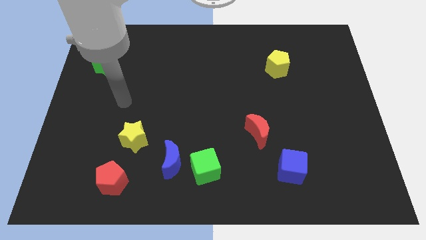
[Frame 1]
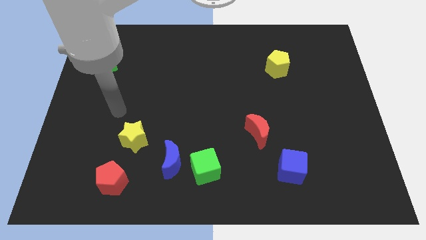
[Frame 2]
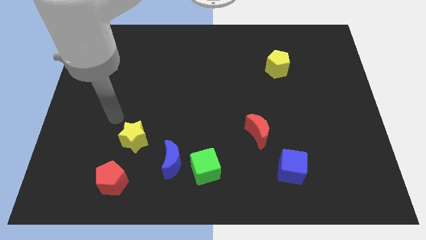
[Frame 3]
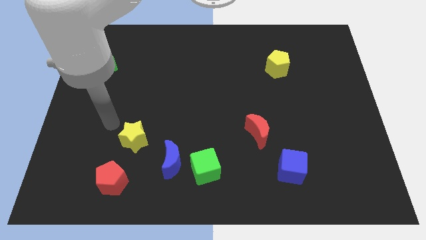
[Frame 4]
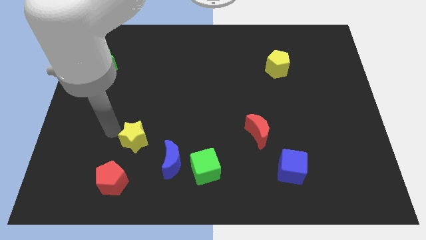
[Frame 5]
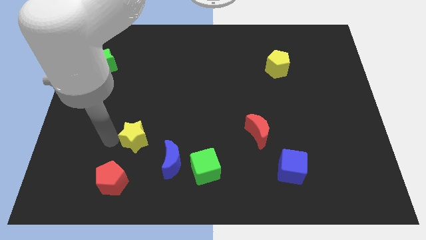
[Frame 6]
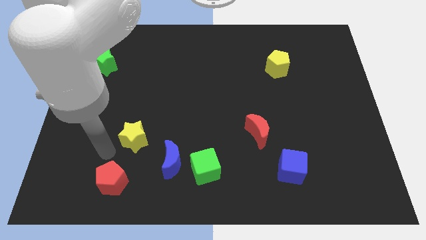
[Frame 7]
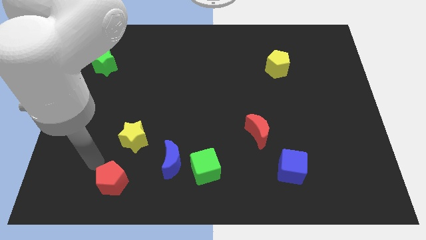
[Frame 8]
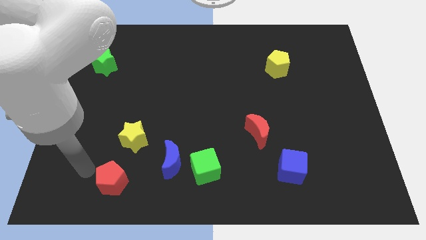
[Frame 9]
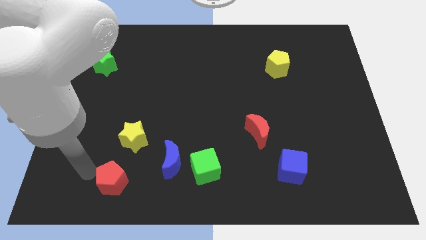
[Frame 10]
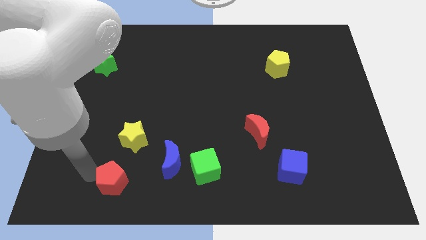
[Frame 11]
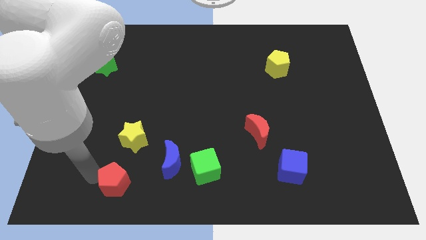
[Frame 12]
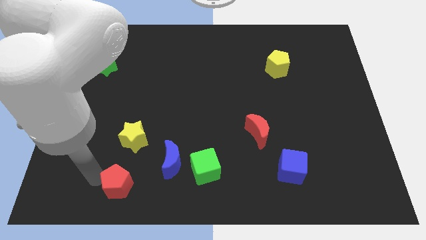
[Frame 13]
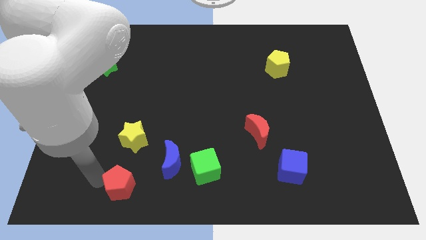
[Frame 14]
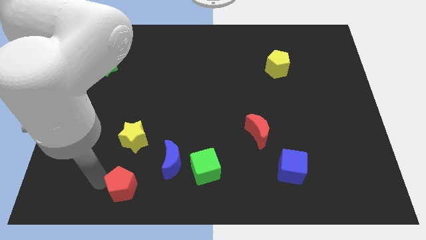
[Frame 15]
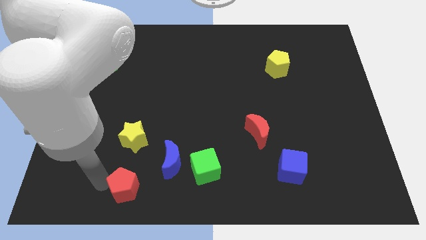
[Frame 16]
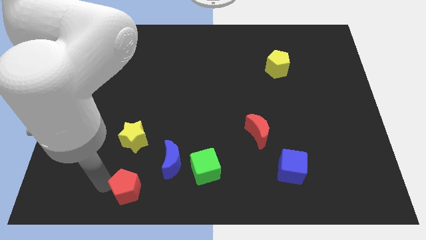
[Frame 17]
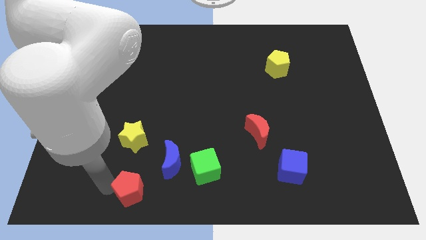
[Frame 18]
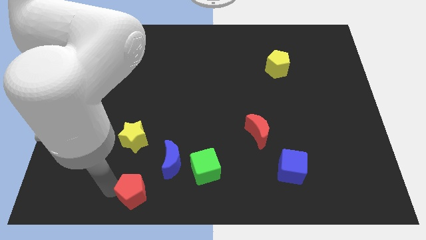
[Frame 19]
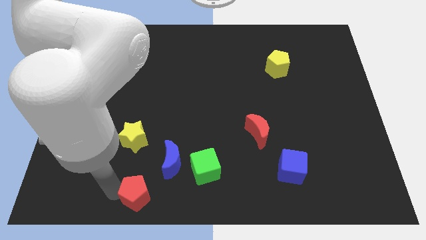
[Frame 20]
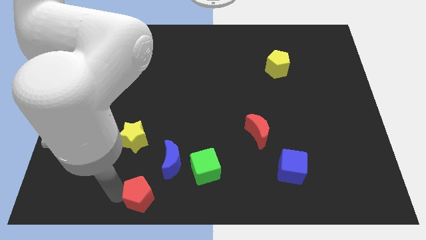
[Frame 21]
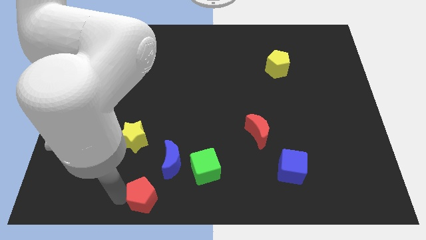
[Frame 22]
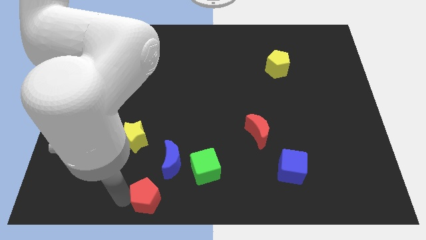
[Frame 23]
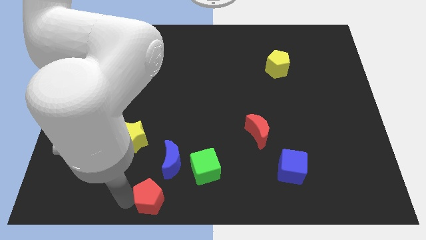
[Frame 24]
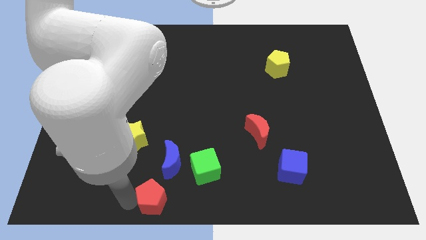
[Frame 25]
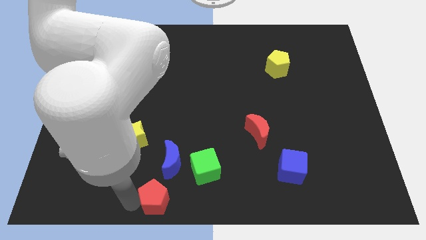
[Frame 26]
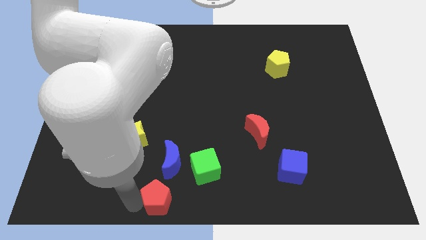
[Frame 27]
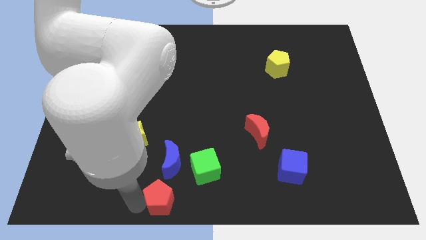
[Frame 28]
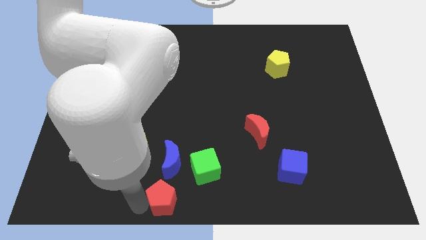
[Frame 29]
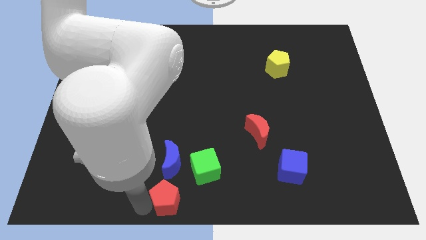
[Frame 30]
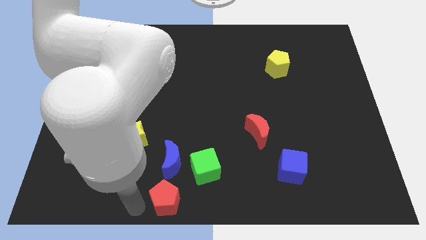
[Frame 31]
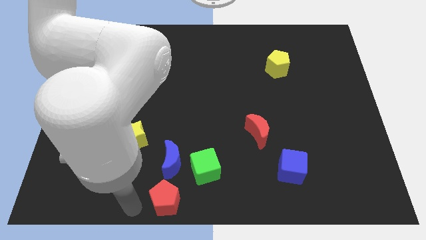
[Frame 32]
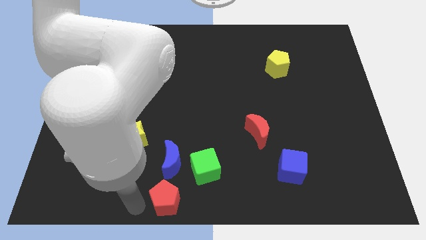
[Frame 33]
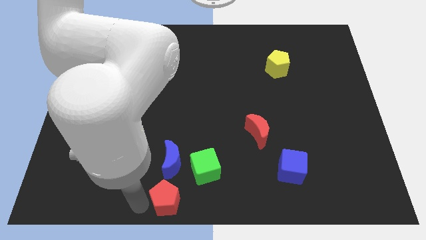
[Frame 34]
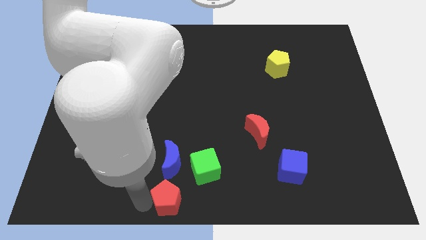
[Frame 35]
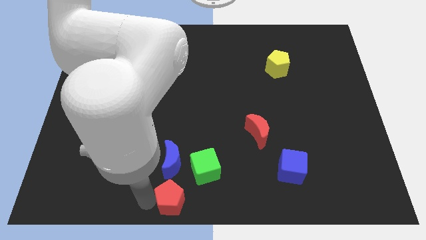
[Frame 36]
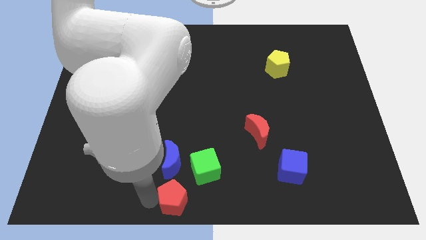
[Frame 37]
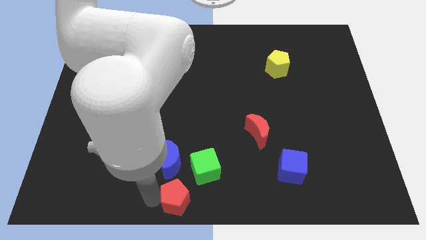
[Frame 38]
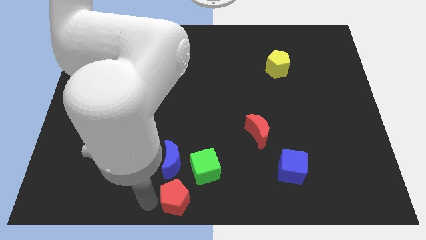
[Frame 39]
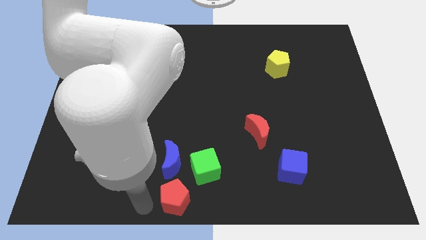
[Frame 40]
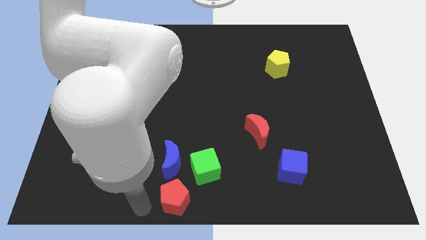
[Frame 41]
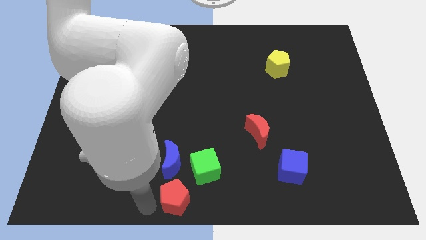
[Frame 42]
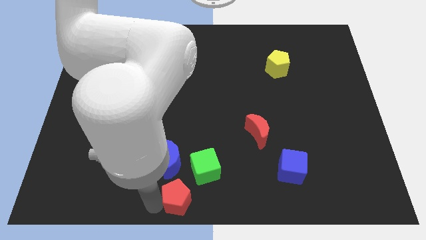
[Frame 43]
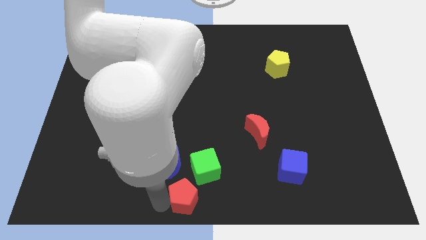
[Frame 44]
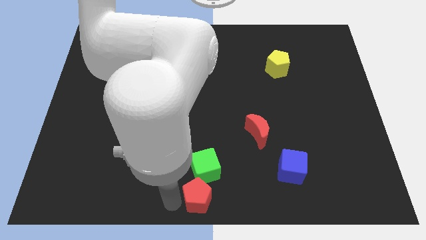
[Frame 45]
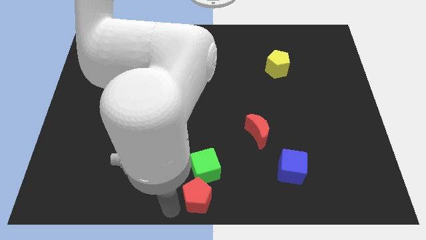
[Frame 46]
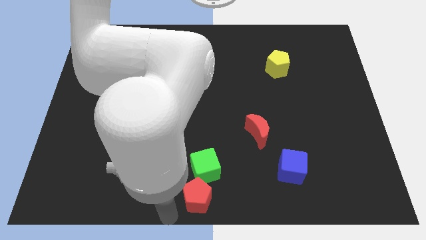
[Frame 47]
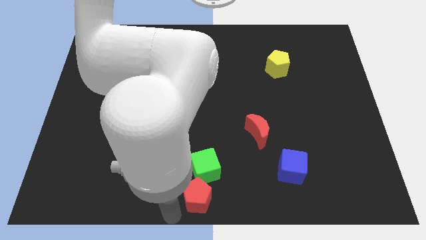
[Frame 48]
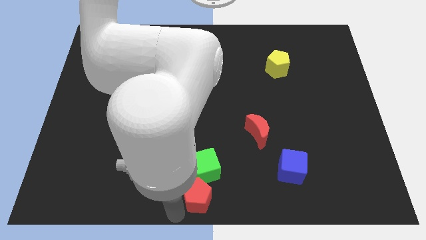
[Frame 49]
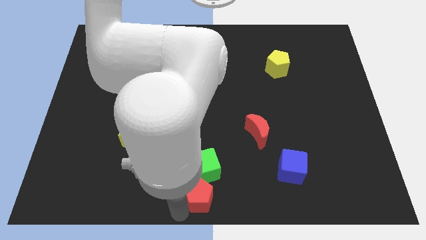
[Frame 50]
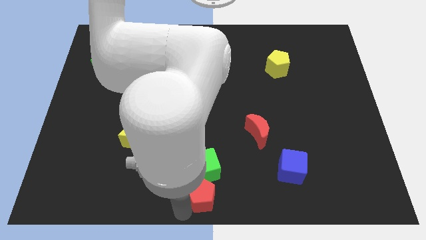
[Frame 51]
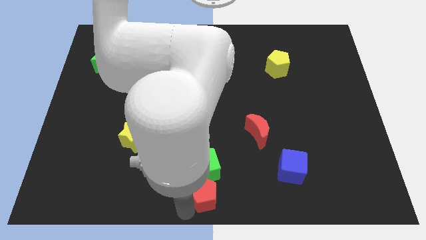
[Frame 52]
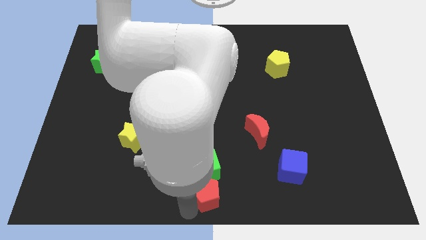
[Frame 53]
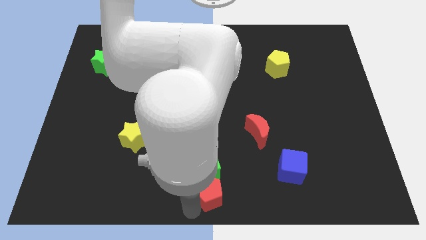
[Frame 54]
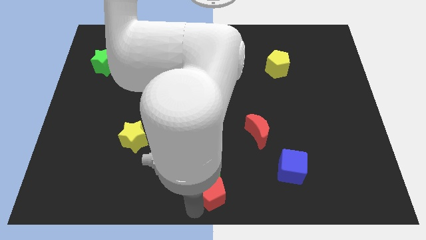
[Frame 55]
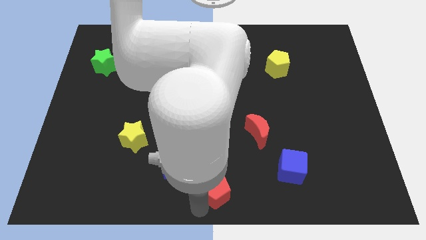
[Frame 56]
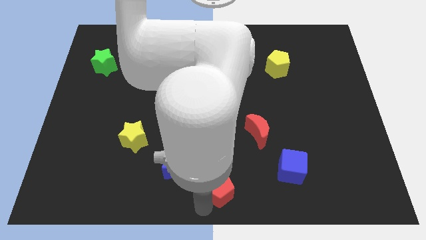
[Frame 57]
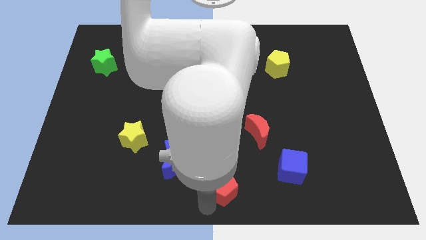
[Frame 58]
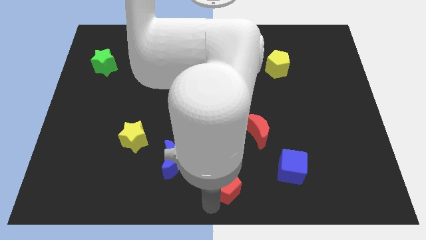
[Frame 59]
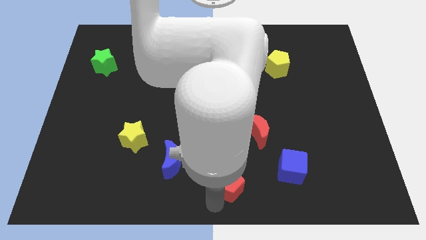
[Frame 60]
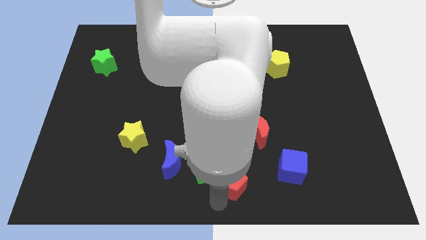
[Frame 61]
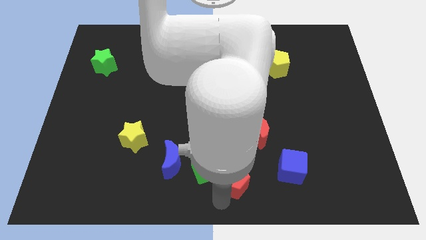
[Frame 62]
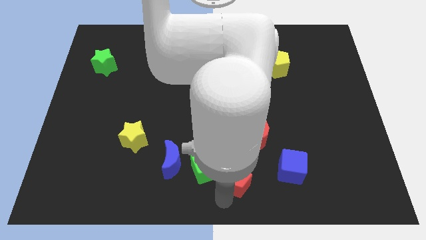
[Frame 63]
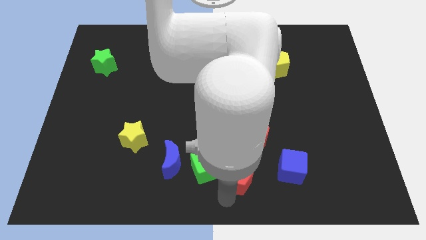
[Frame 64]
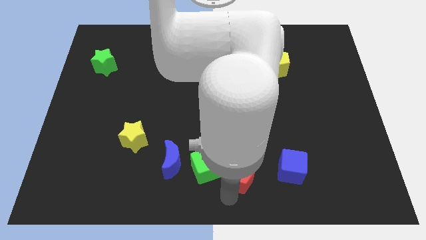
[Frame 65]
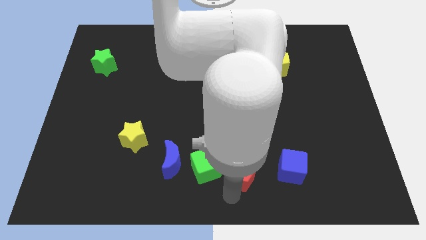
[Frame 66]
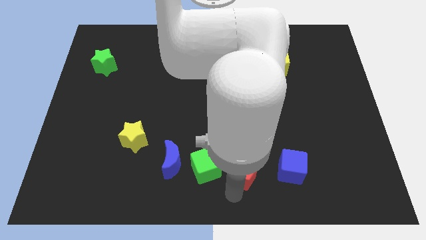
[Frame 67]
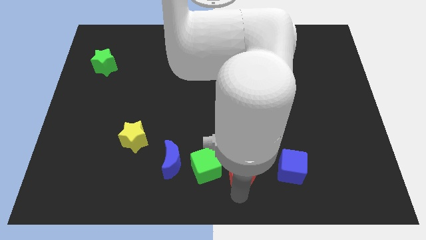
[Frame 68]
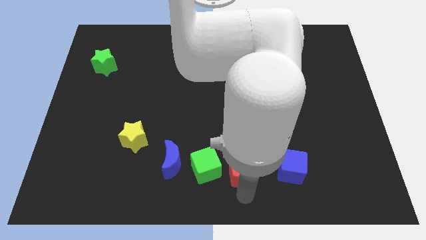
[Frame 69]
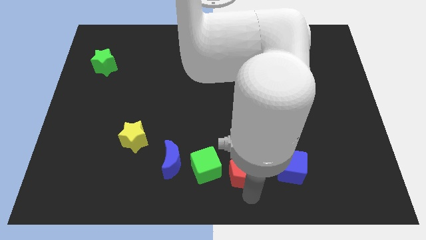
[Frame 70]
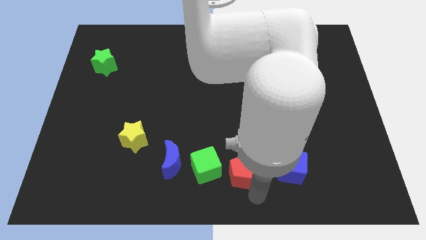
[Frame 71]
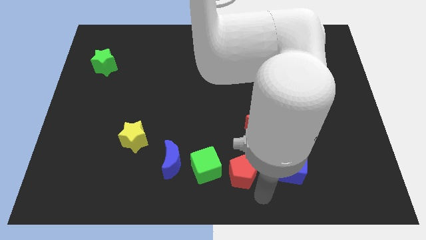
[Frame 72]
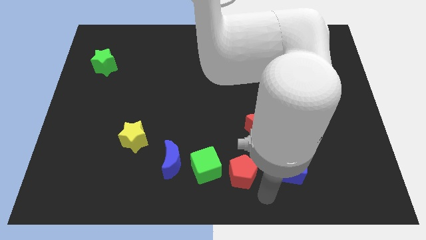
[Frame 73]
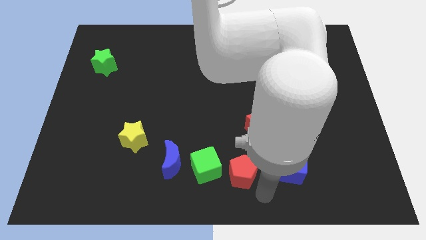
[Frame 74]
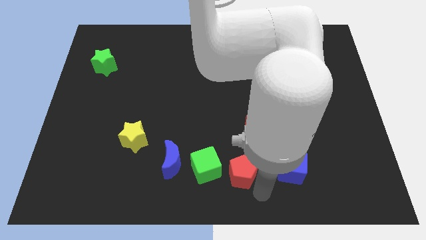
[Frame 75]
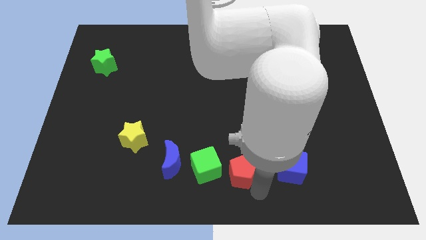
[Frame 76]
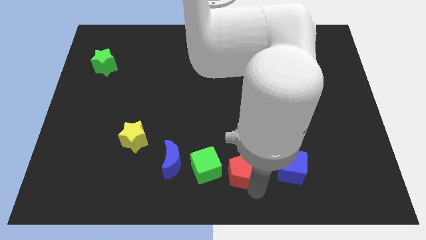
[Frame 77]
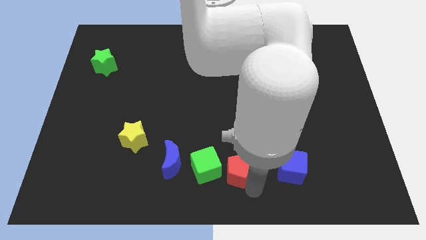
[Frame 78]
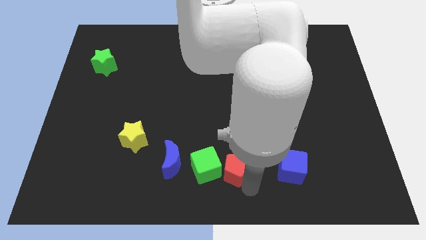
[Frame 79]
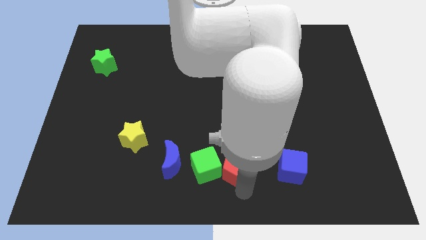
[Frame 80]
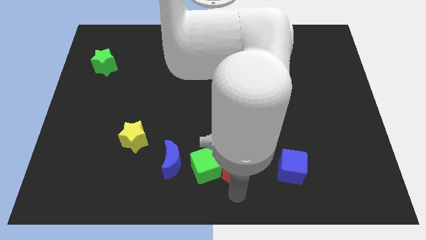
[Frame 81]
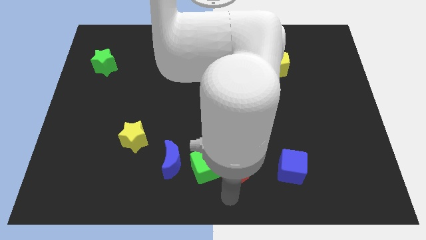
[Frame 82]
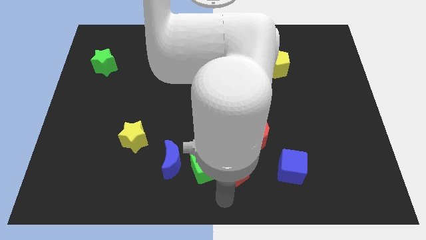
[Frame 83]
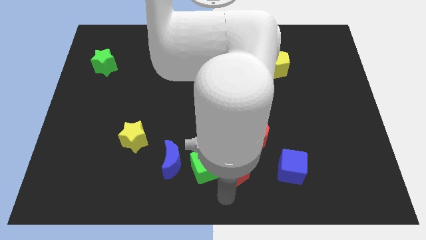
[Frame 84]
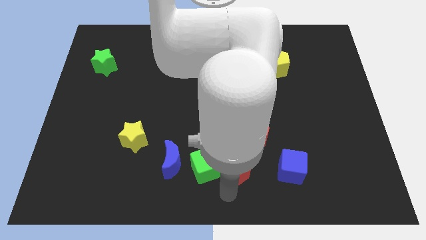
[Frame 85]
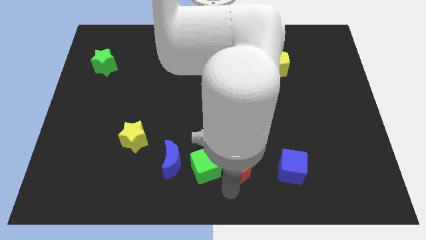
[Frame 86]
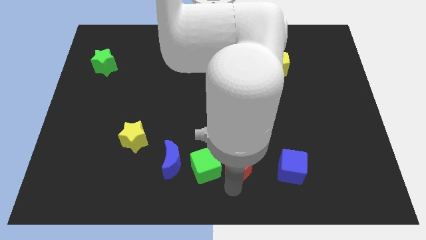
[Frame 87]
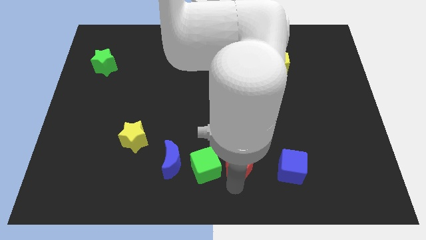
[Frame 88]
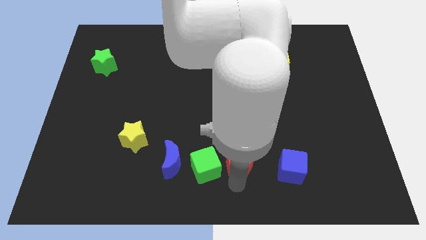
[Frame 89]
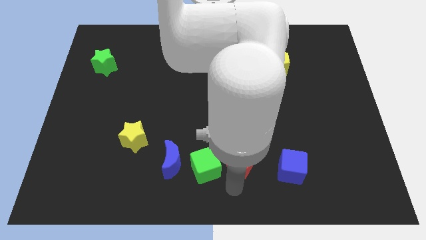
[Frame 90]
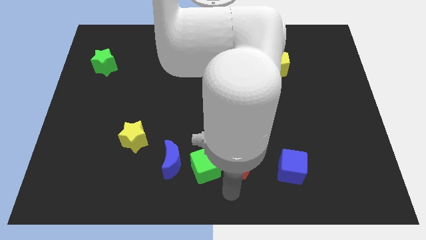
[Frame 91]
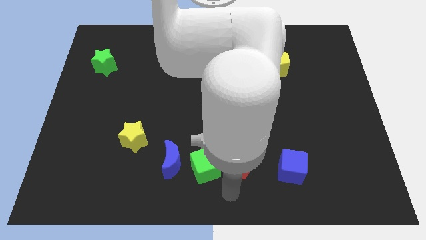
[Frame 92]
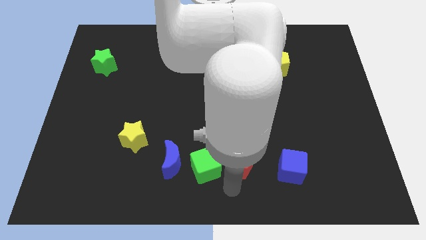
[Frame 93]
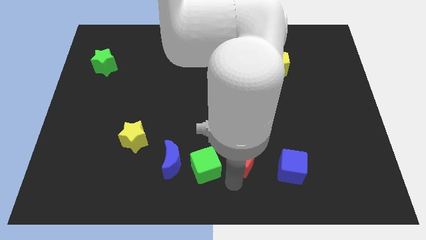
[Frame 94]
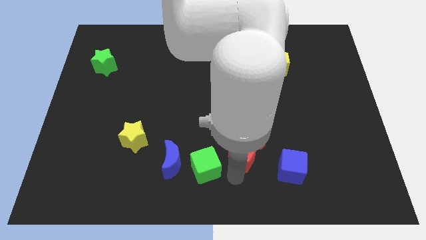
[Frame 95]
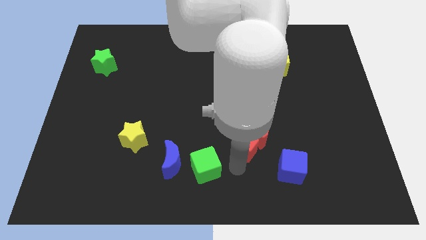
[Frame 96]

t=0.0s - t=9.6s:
move the red pentagon to the red moon
